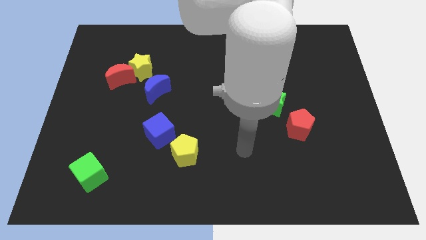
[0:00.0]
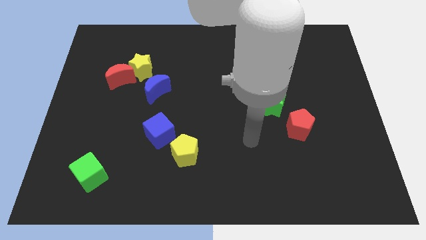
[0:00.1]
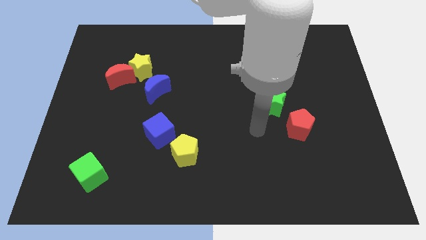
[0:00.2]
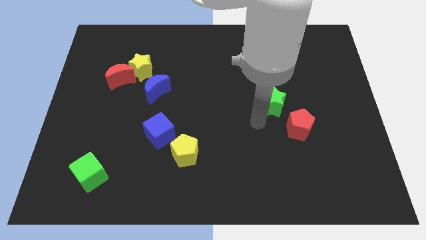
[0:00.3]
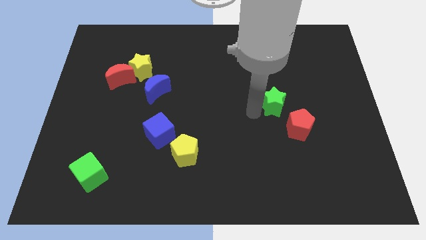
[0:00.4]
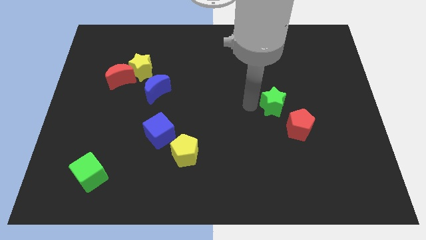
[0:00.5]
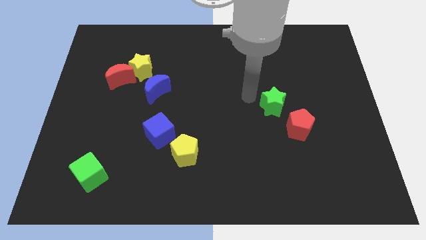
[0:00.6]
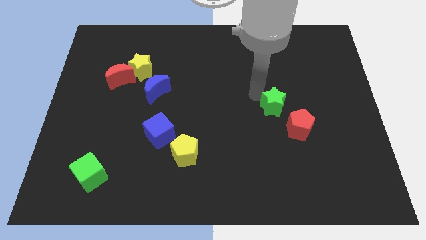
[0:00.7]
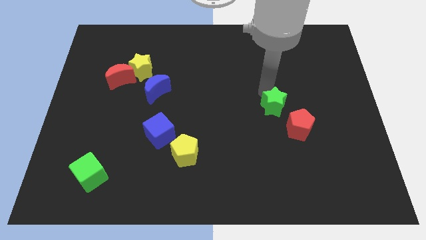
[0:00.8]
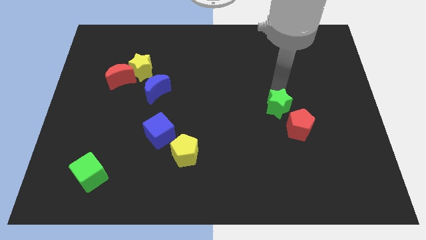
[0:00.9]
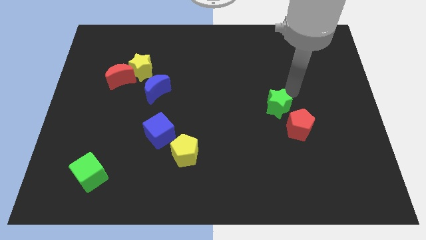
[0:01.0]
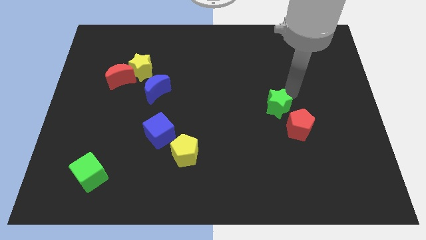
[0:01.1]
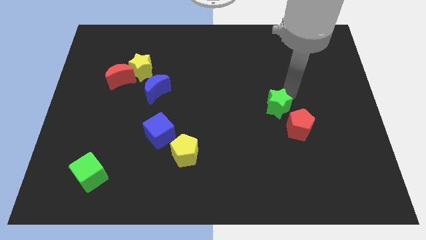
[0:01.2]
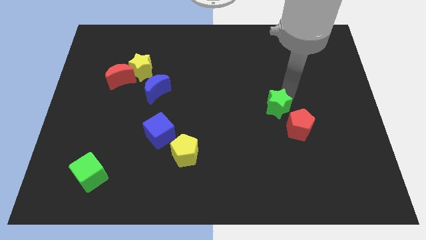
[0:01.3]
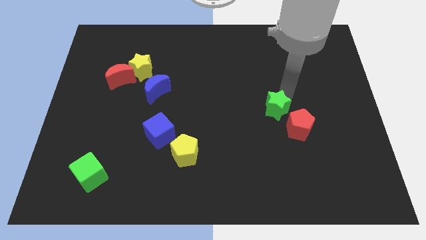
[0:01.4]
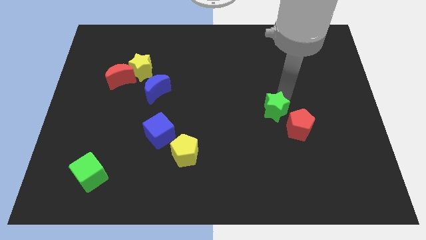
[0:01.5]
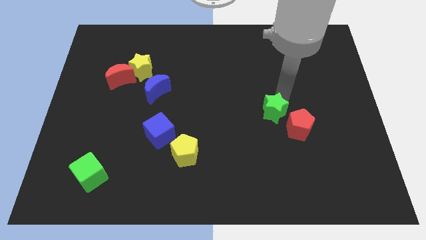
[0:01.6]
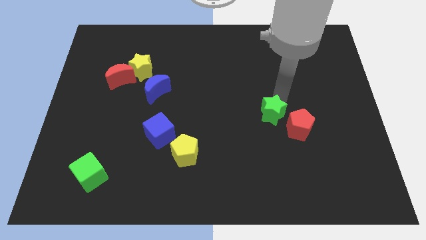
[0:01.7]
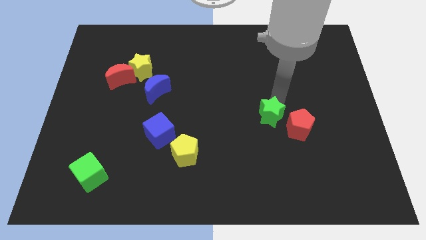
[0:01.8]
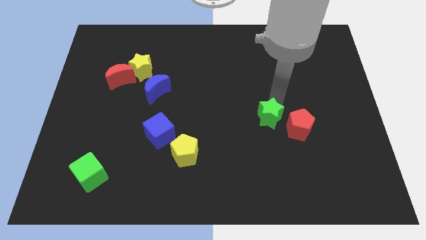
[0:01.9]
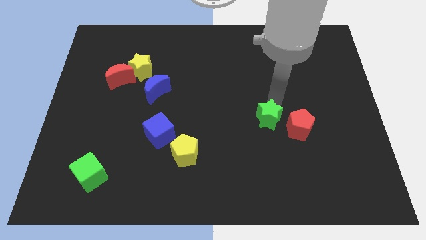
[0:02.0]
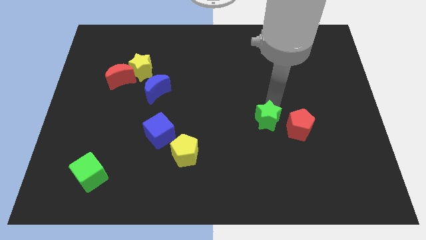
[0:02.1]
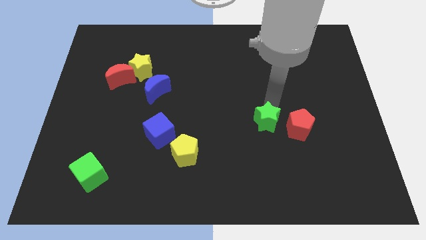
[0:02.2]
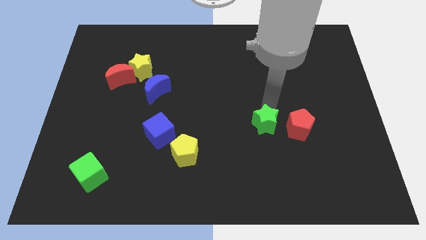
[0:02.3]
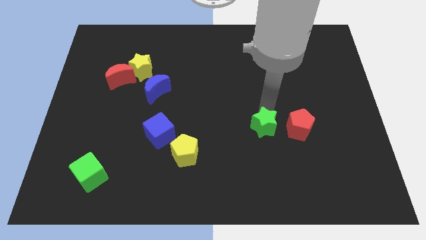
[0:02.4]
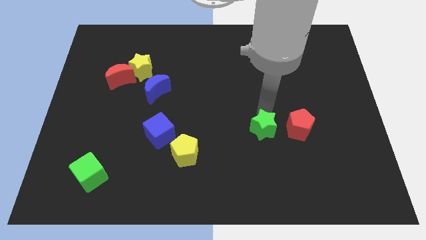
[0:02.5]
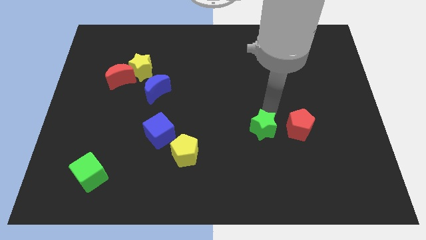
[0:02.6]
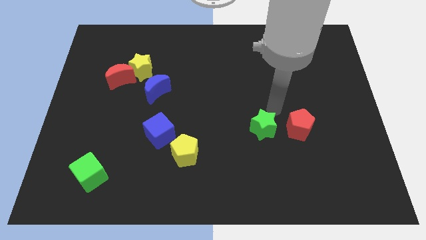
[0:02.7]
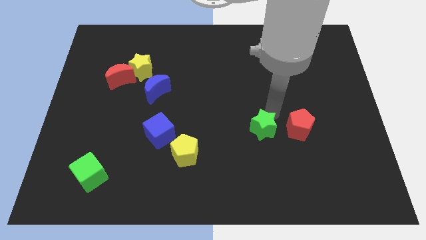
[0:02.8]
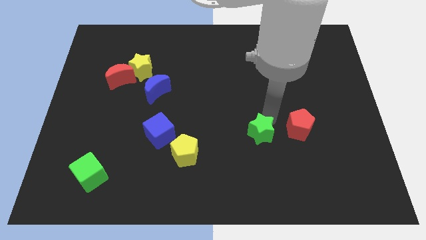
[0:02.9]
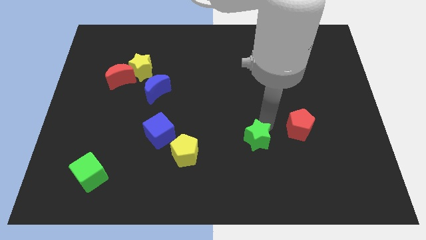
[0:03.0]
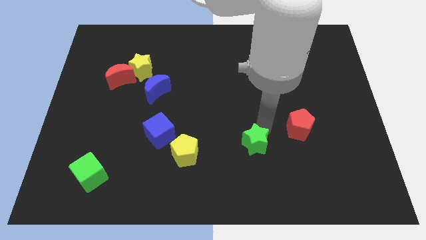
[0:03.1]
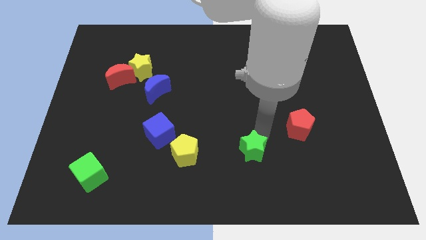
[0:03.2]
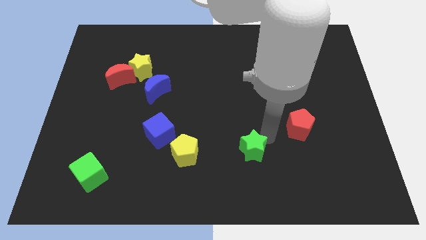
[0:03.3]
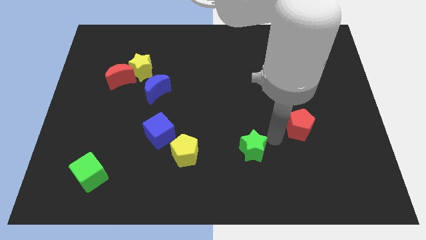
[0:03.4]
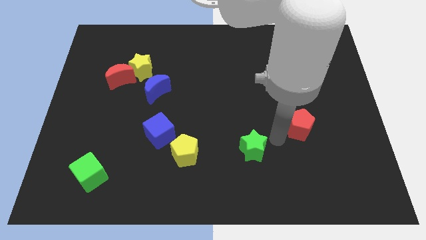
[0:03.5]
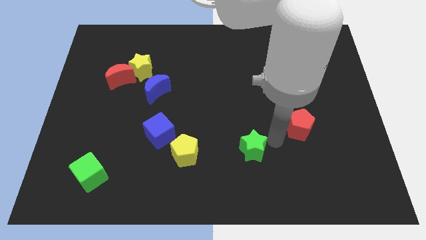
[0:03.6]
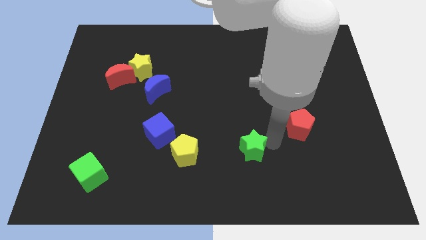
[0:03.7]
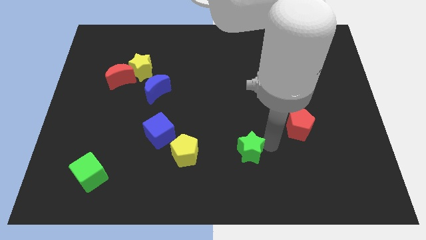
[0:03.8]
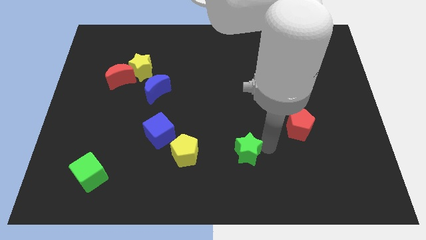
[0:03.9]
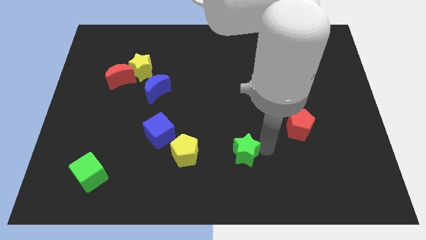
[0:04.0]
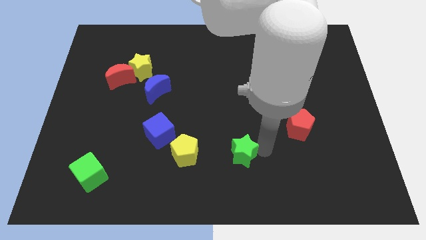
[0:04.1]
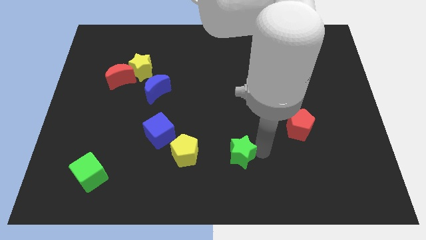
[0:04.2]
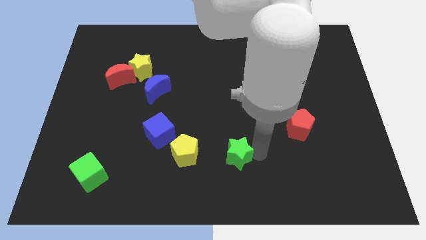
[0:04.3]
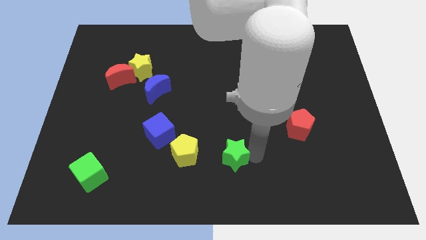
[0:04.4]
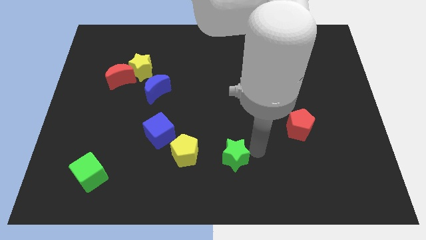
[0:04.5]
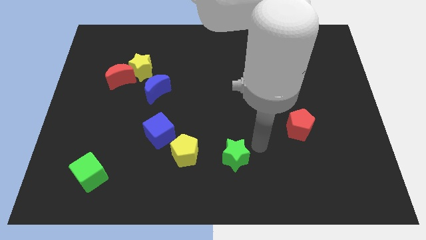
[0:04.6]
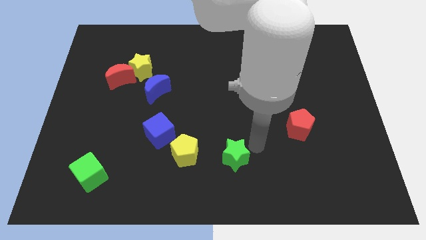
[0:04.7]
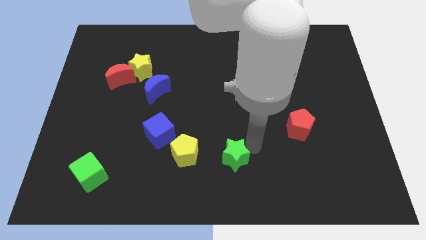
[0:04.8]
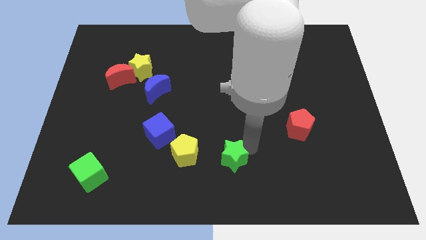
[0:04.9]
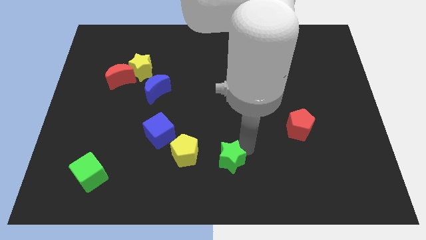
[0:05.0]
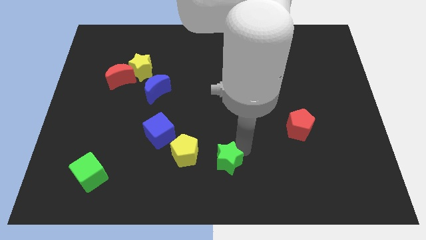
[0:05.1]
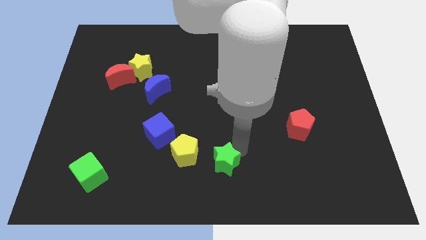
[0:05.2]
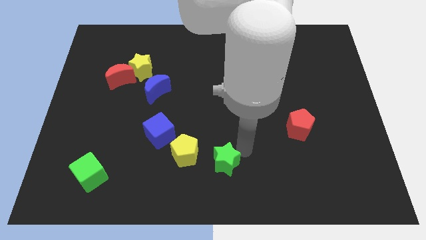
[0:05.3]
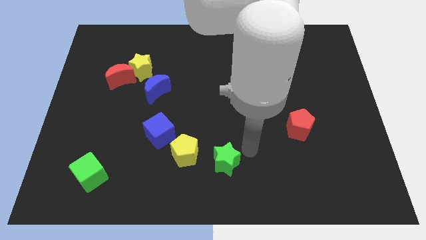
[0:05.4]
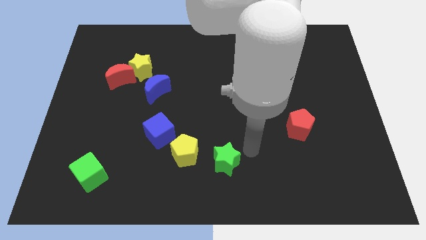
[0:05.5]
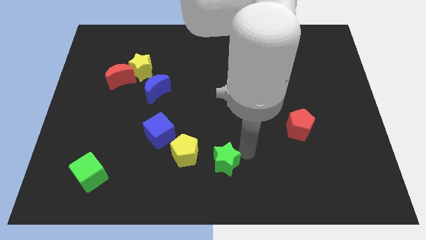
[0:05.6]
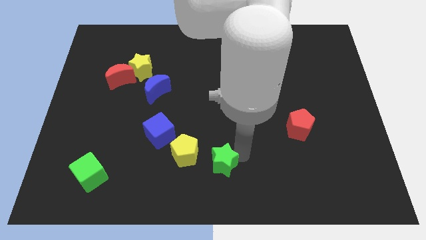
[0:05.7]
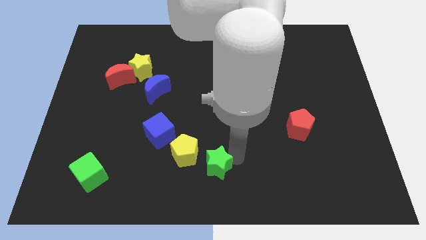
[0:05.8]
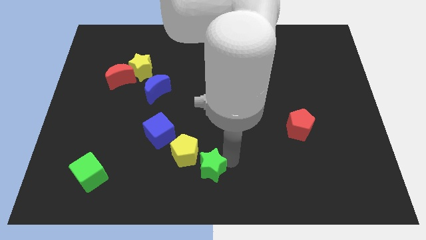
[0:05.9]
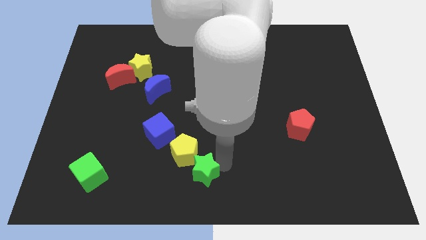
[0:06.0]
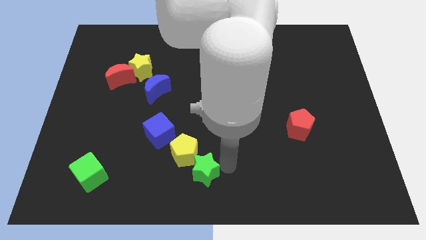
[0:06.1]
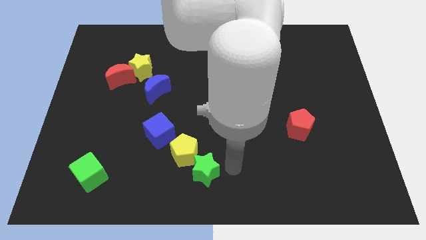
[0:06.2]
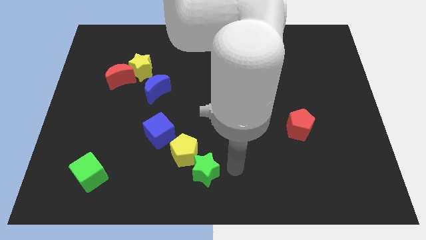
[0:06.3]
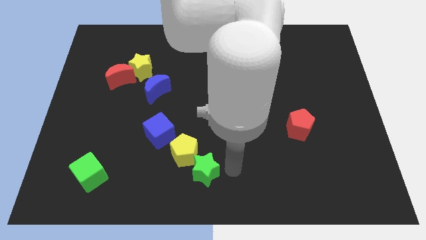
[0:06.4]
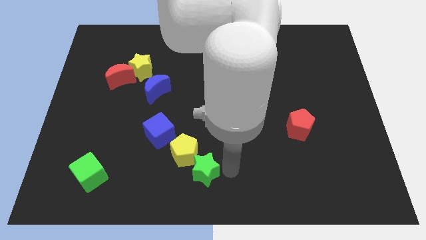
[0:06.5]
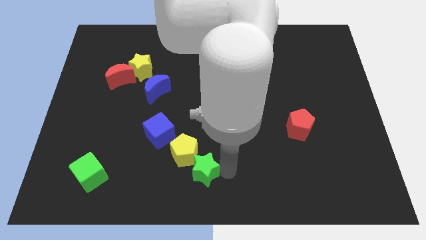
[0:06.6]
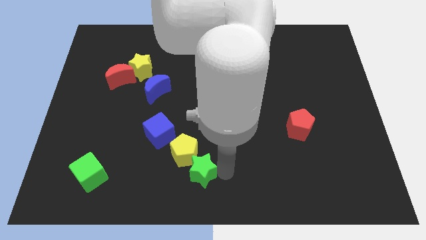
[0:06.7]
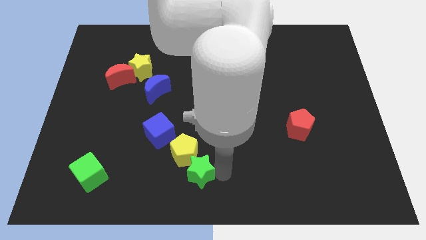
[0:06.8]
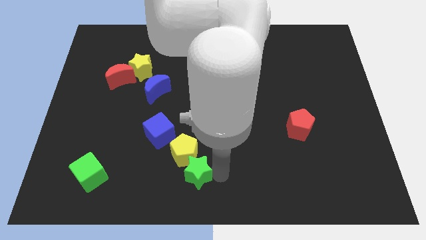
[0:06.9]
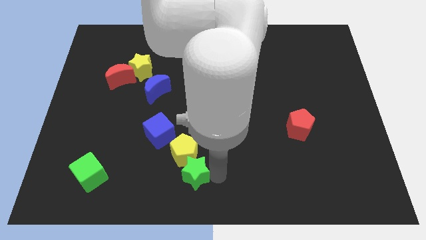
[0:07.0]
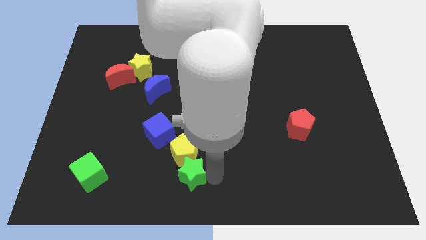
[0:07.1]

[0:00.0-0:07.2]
put the green star diagonally down and to the left of the yellow pentagon

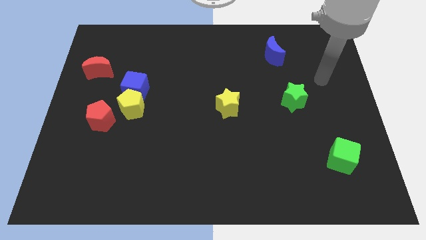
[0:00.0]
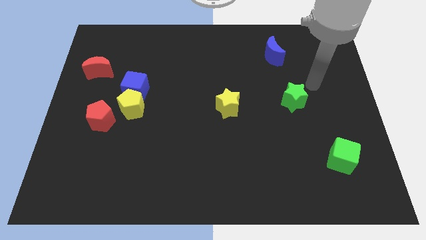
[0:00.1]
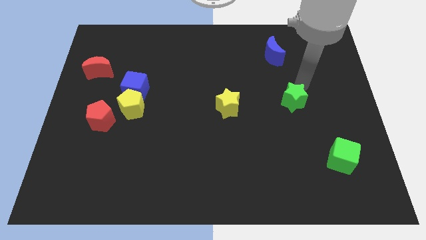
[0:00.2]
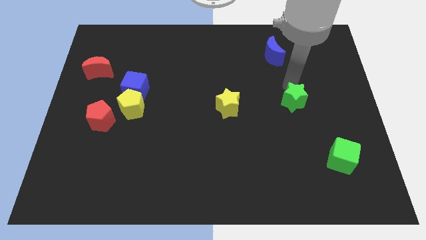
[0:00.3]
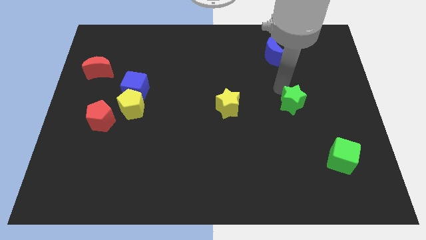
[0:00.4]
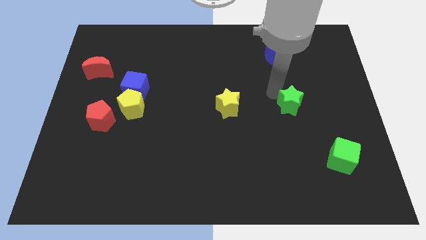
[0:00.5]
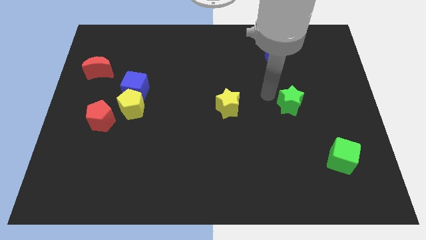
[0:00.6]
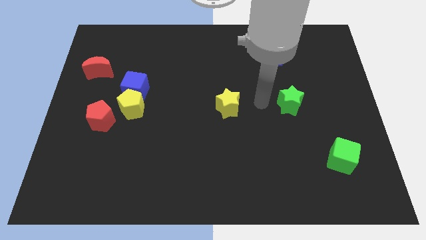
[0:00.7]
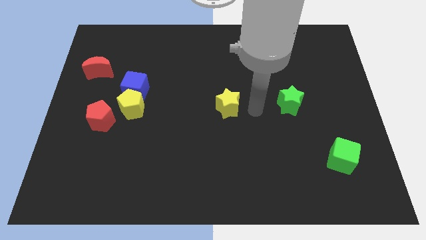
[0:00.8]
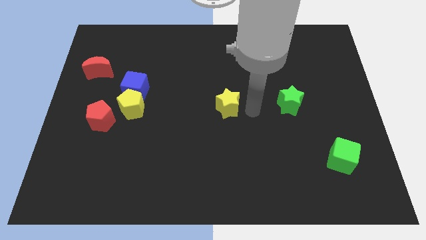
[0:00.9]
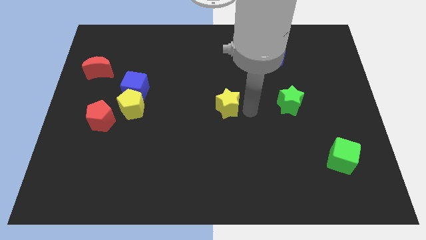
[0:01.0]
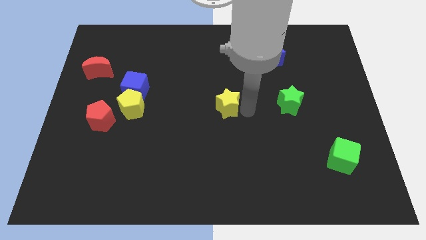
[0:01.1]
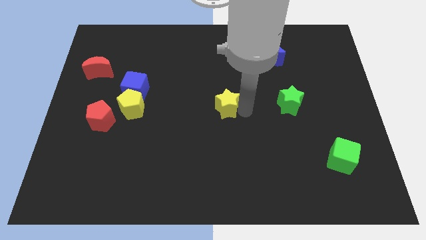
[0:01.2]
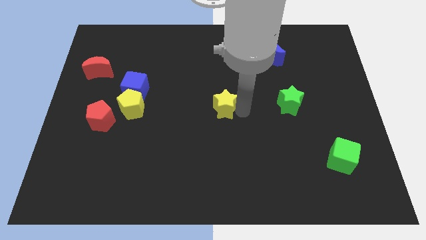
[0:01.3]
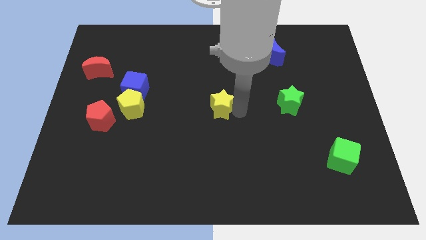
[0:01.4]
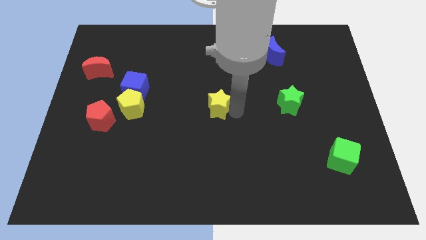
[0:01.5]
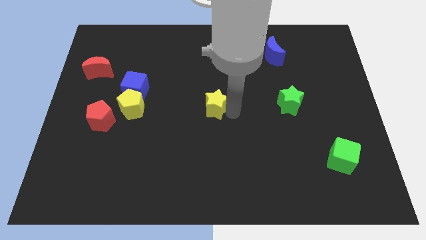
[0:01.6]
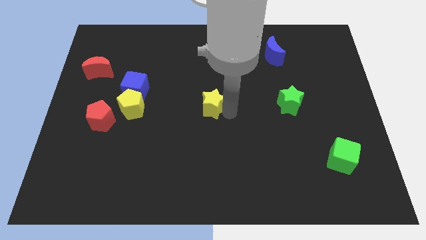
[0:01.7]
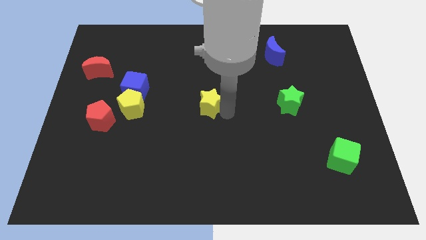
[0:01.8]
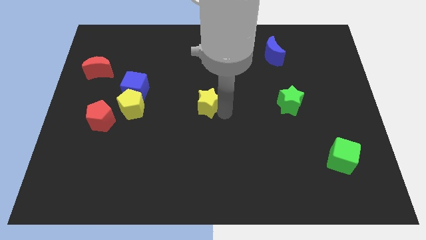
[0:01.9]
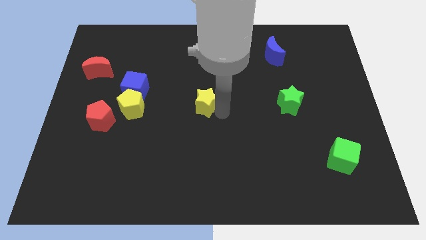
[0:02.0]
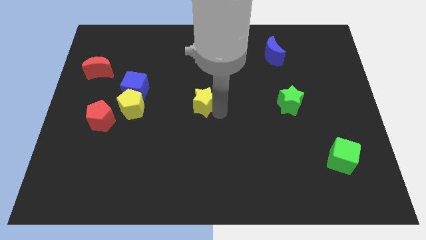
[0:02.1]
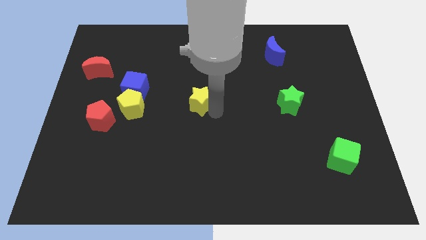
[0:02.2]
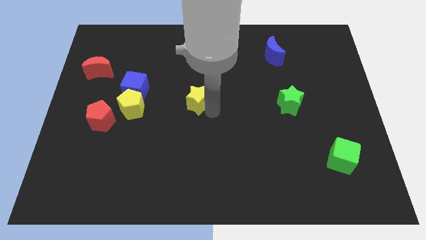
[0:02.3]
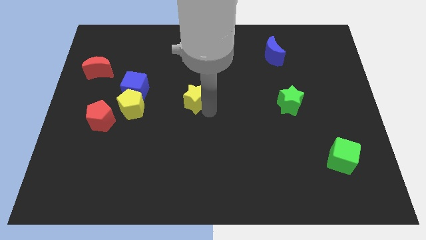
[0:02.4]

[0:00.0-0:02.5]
push the yellow star right of the blue cube
